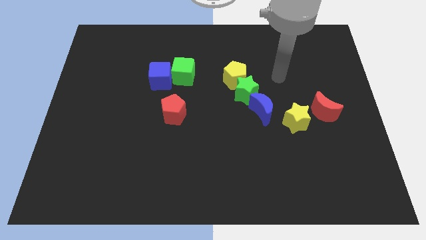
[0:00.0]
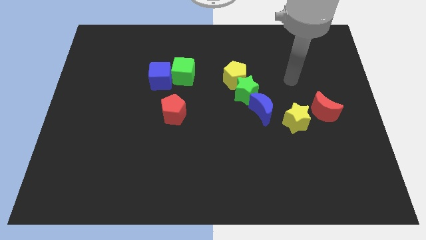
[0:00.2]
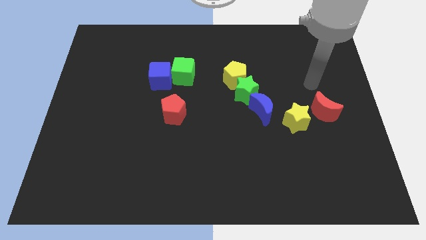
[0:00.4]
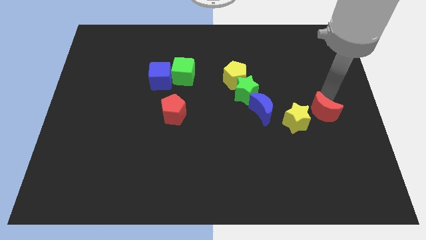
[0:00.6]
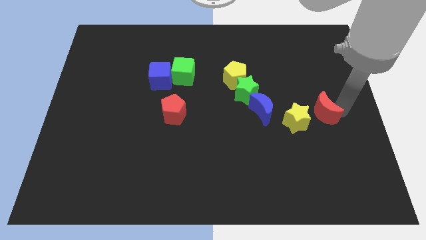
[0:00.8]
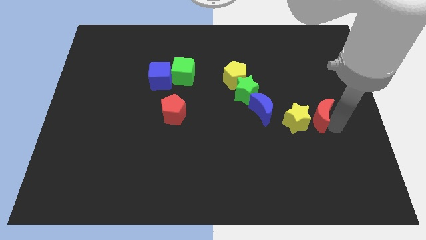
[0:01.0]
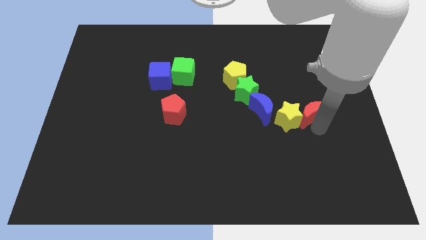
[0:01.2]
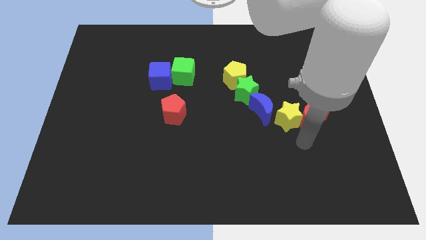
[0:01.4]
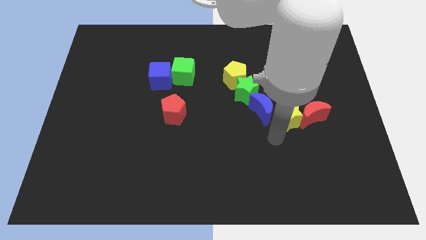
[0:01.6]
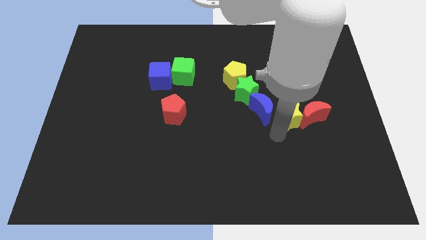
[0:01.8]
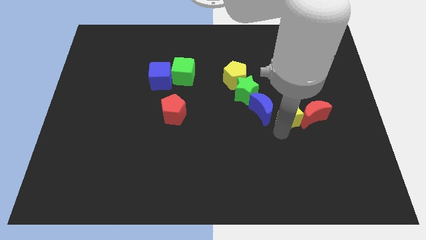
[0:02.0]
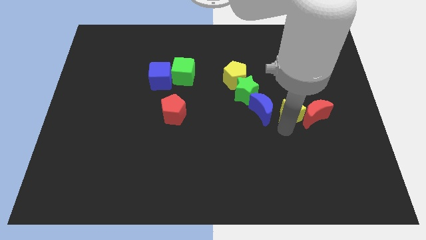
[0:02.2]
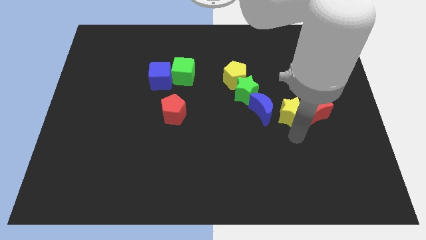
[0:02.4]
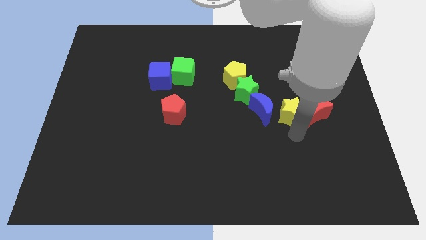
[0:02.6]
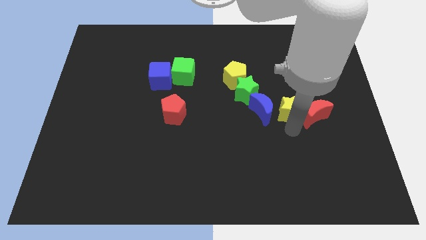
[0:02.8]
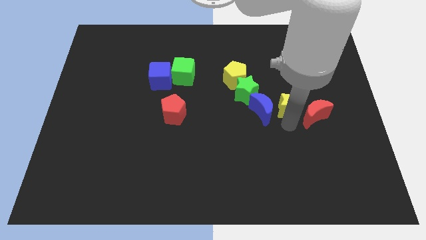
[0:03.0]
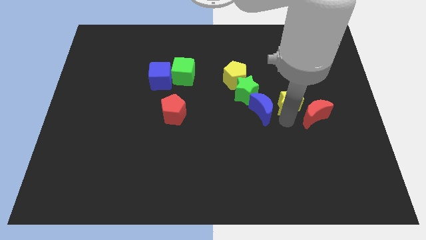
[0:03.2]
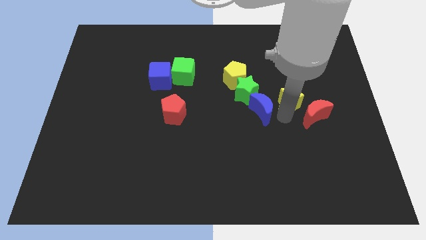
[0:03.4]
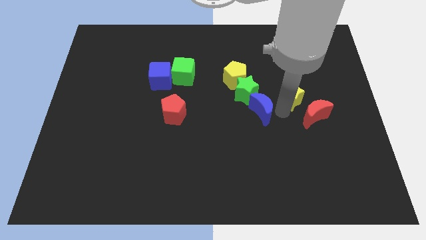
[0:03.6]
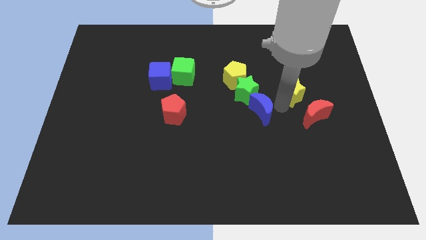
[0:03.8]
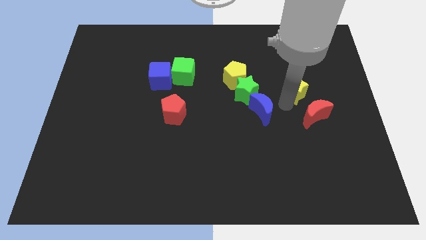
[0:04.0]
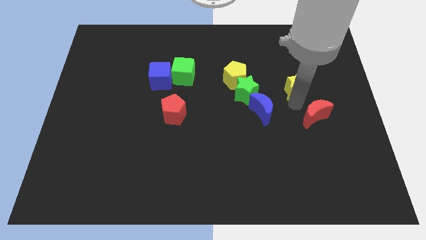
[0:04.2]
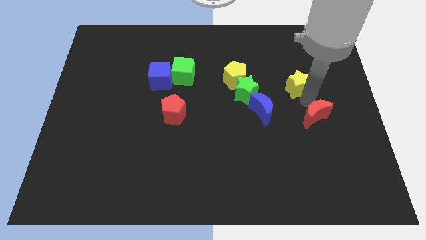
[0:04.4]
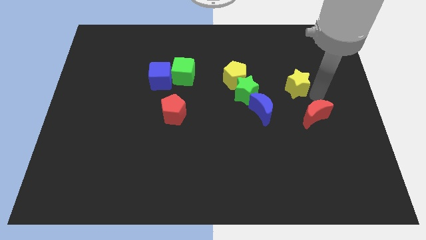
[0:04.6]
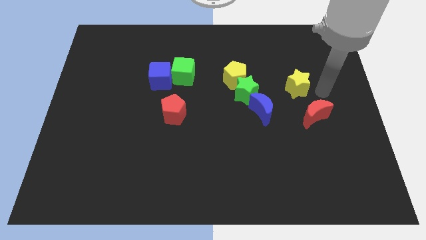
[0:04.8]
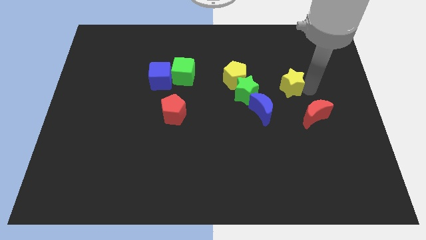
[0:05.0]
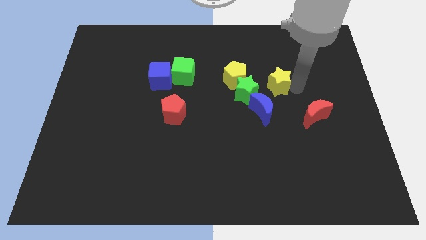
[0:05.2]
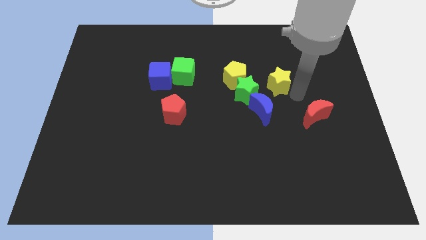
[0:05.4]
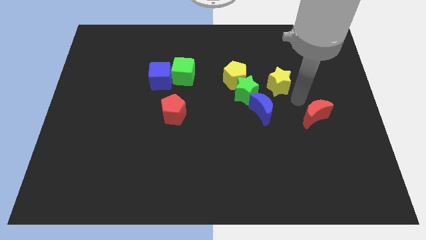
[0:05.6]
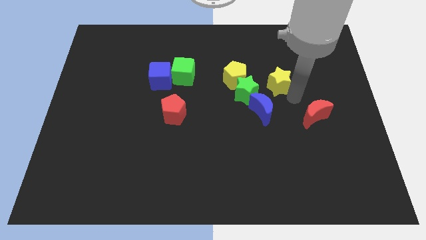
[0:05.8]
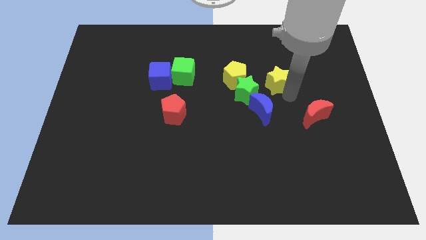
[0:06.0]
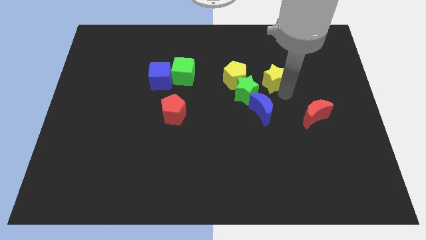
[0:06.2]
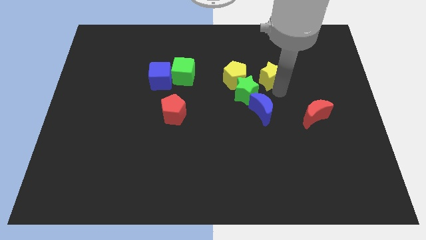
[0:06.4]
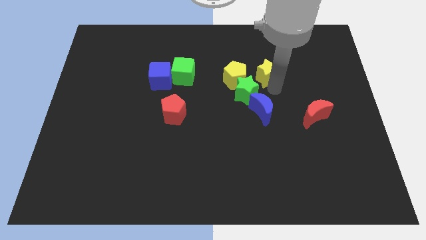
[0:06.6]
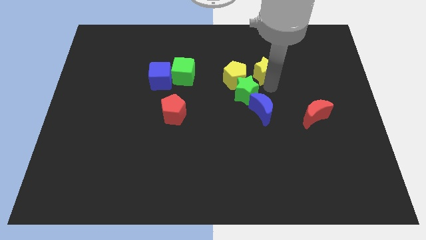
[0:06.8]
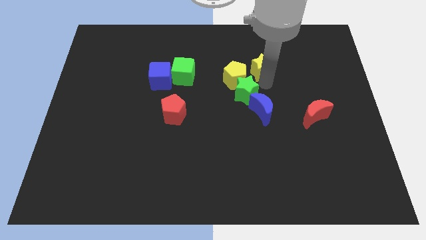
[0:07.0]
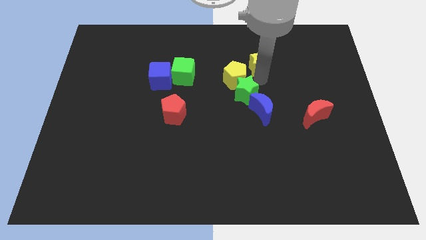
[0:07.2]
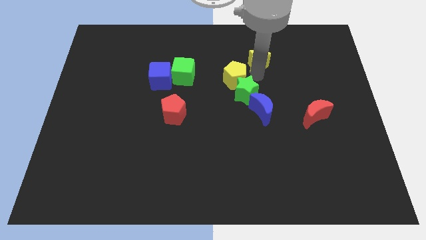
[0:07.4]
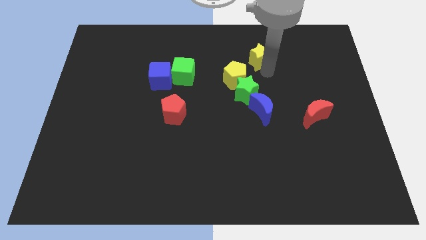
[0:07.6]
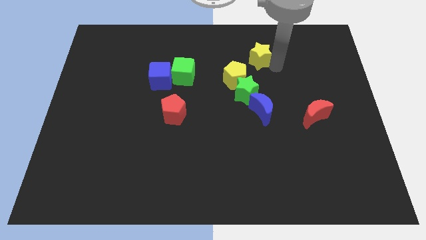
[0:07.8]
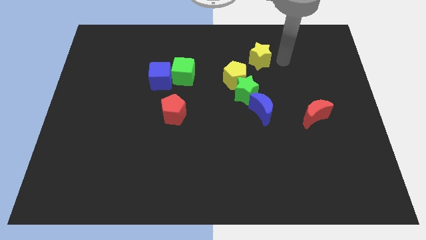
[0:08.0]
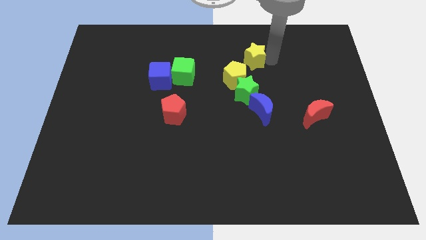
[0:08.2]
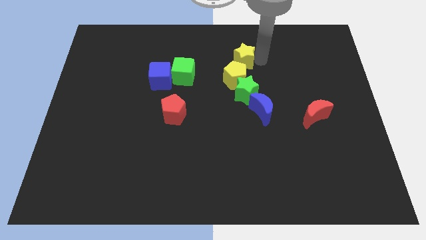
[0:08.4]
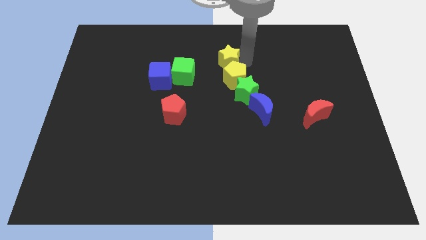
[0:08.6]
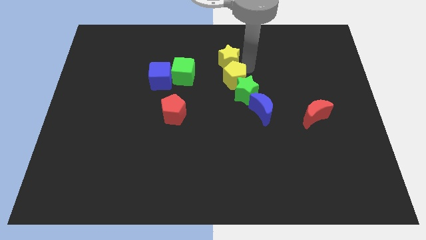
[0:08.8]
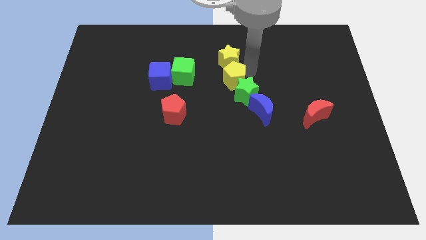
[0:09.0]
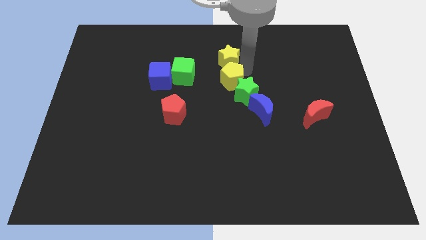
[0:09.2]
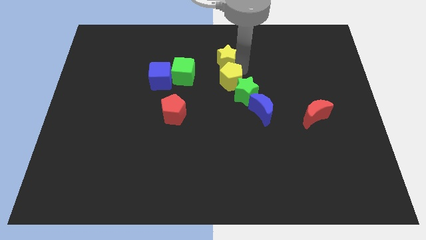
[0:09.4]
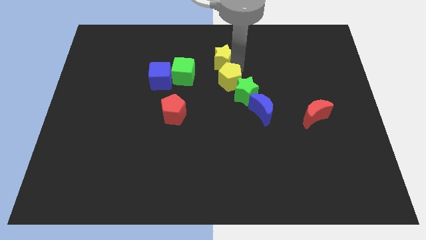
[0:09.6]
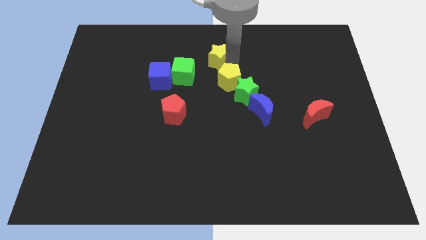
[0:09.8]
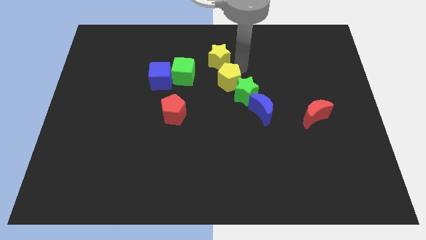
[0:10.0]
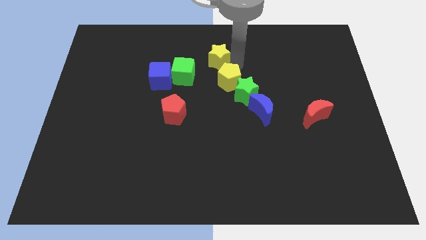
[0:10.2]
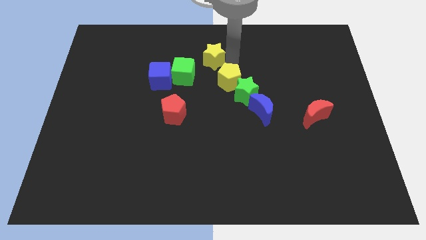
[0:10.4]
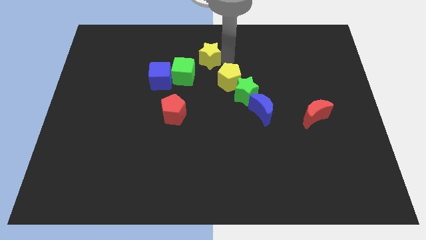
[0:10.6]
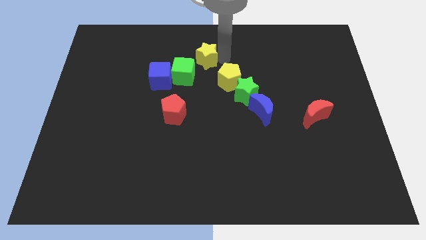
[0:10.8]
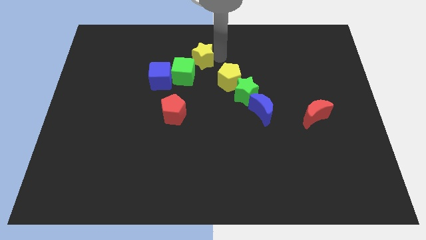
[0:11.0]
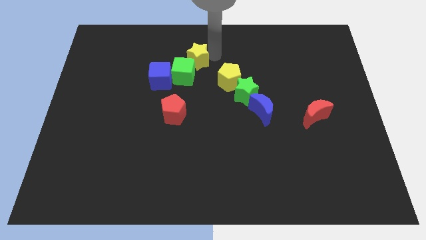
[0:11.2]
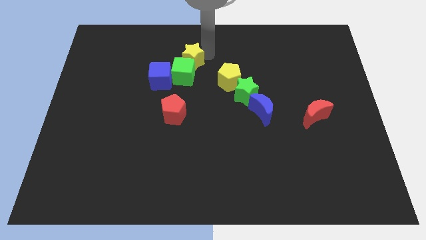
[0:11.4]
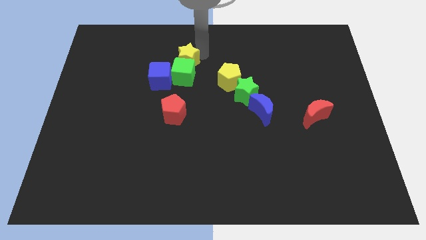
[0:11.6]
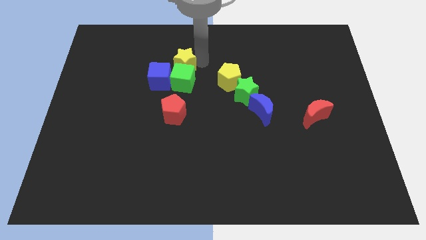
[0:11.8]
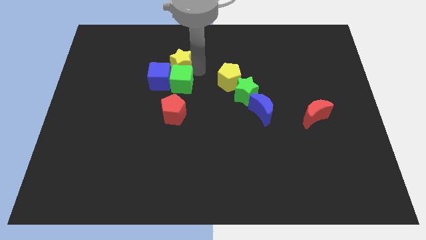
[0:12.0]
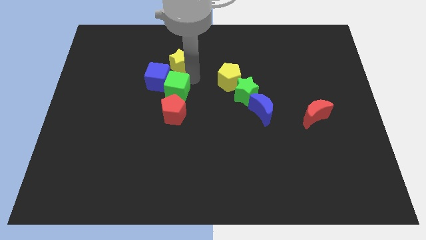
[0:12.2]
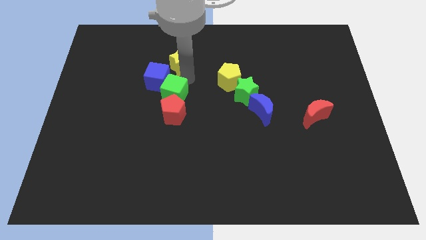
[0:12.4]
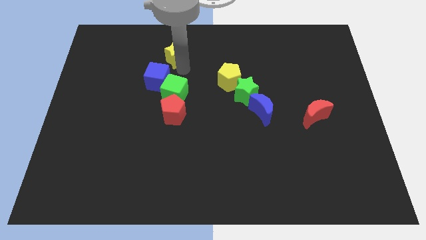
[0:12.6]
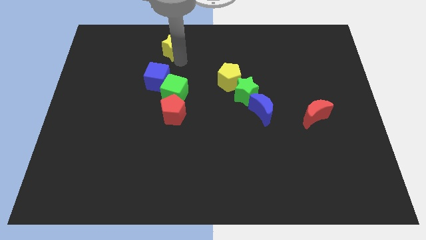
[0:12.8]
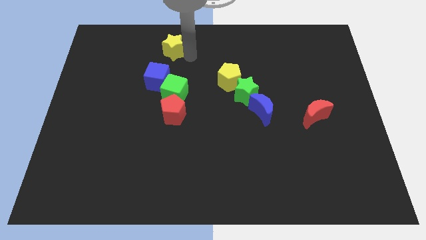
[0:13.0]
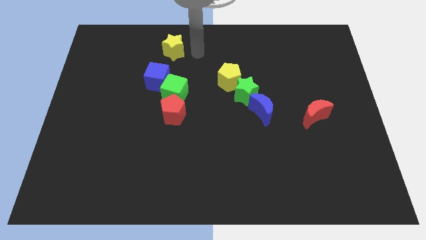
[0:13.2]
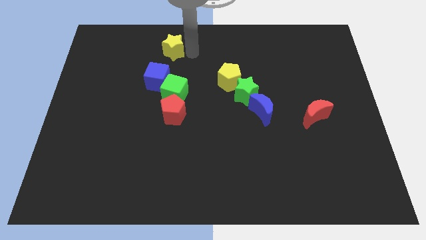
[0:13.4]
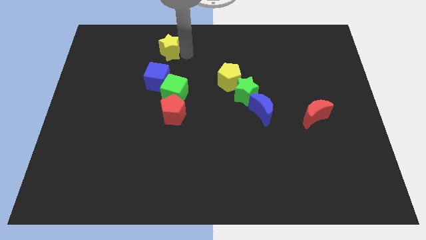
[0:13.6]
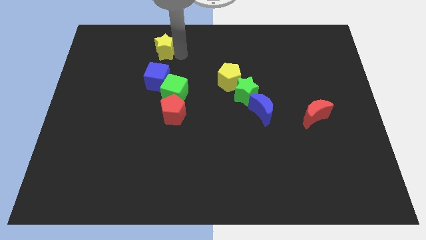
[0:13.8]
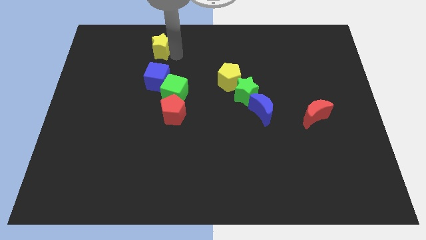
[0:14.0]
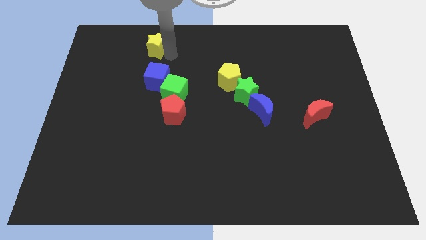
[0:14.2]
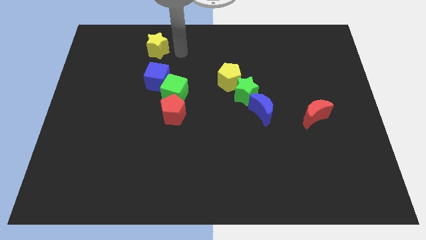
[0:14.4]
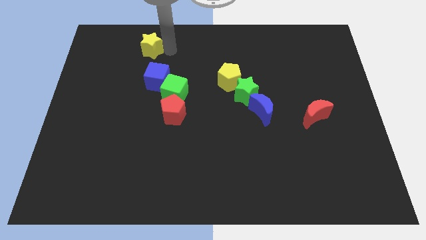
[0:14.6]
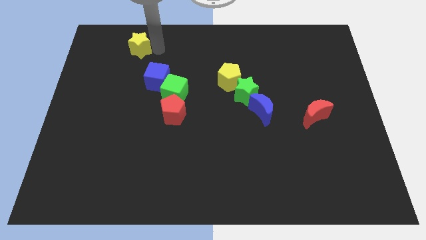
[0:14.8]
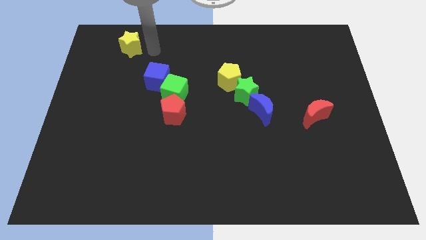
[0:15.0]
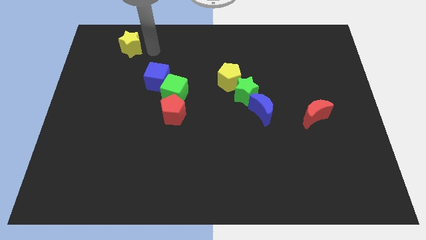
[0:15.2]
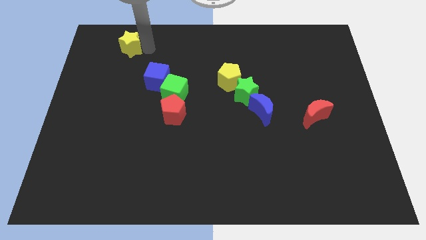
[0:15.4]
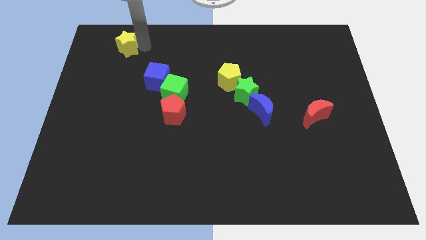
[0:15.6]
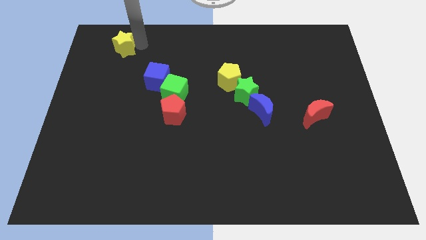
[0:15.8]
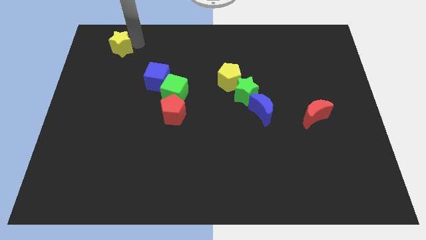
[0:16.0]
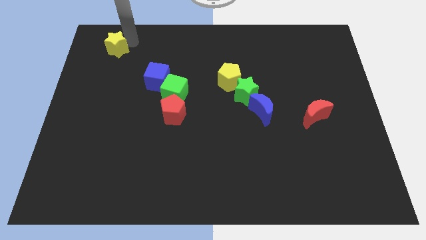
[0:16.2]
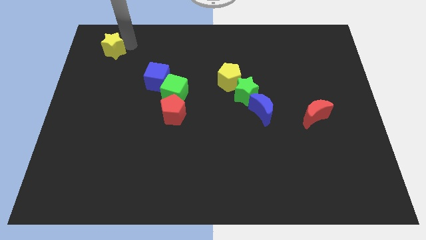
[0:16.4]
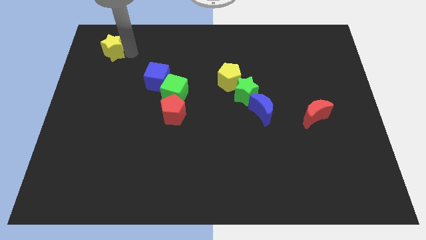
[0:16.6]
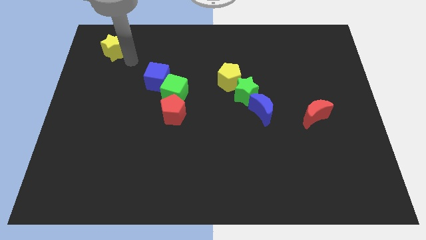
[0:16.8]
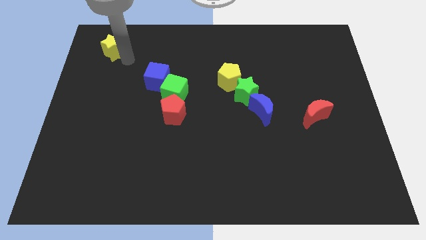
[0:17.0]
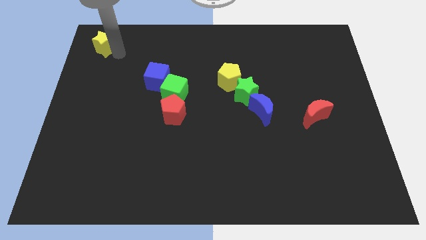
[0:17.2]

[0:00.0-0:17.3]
put the yellow star to the top left corner
